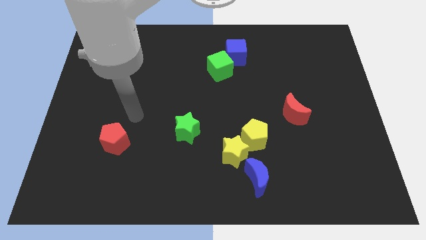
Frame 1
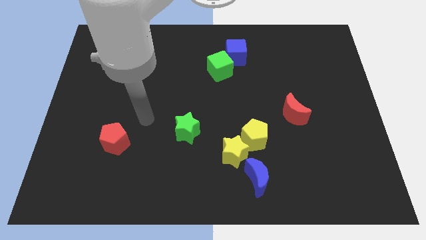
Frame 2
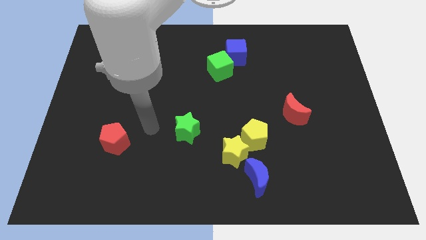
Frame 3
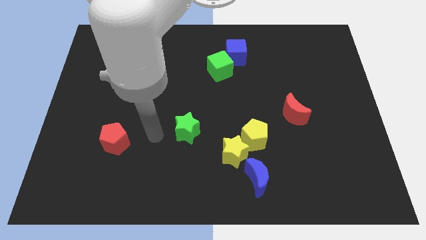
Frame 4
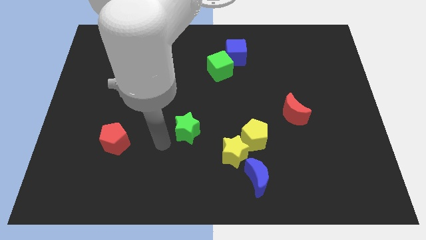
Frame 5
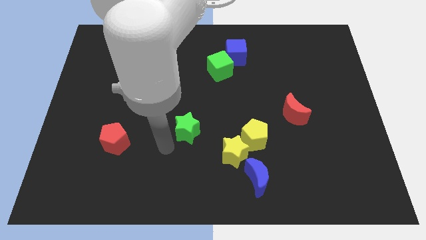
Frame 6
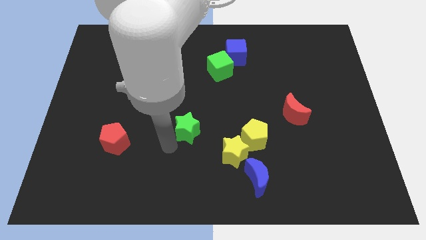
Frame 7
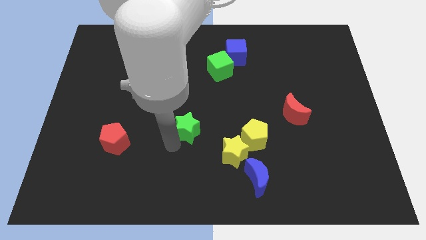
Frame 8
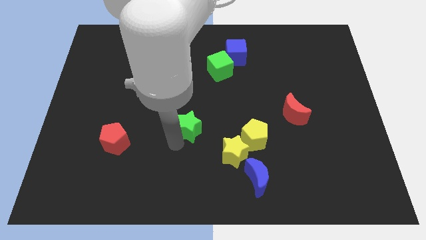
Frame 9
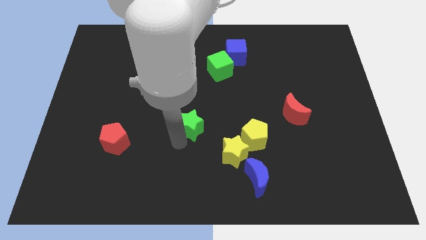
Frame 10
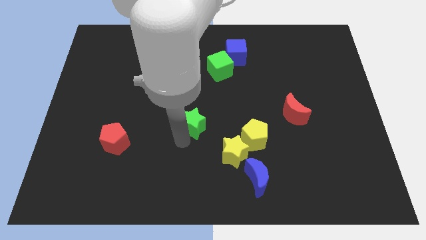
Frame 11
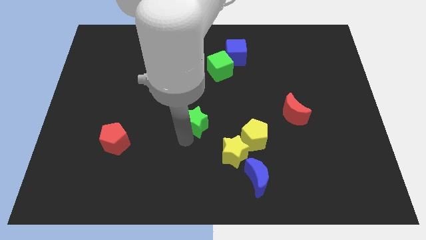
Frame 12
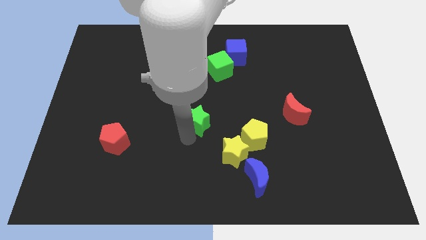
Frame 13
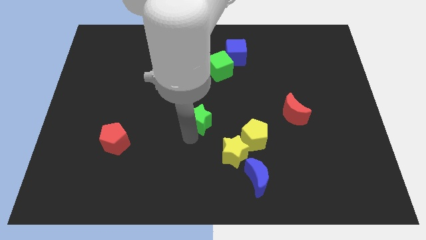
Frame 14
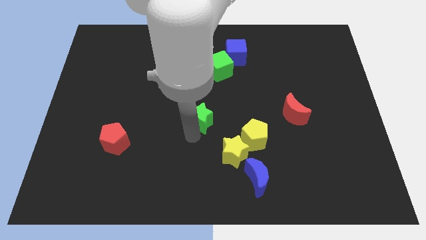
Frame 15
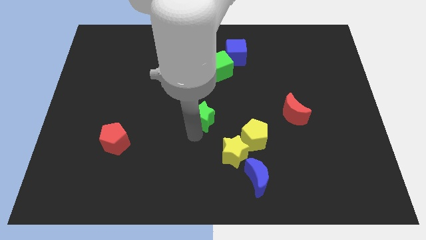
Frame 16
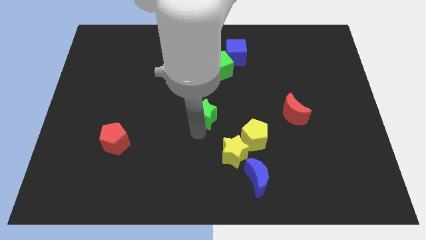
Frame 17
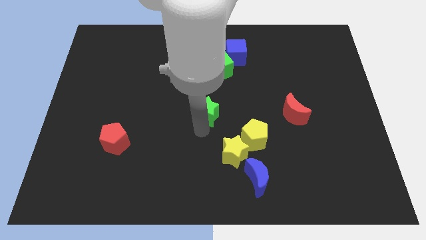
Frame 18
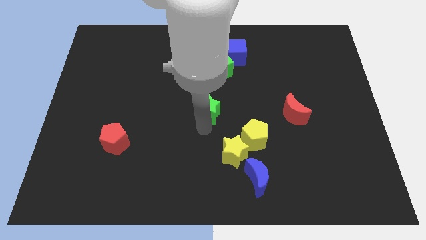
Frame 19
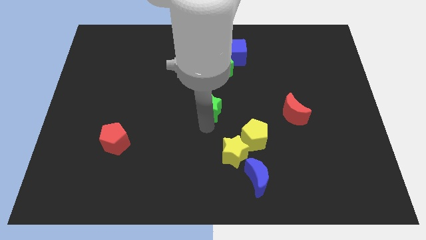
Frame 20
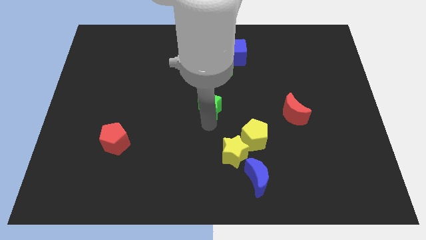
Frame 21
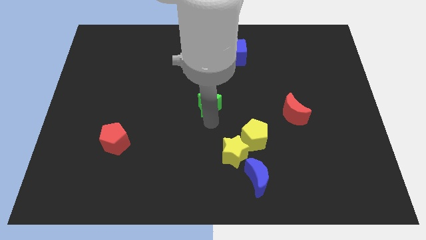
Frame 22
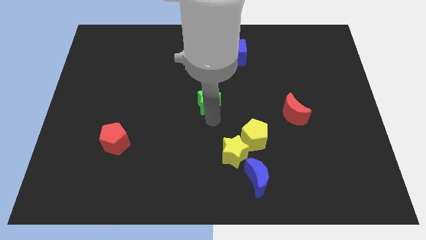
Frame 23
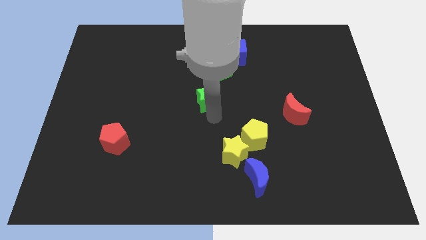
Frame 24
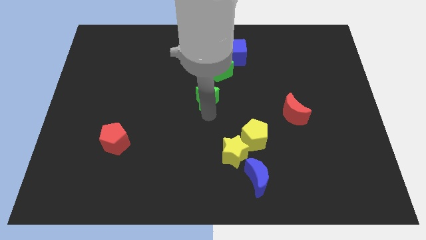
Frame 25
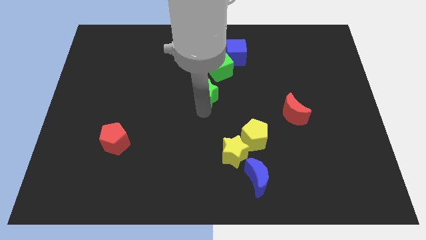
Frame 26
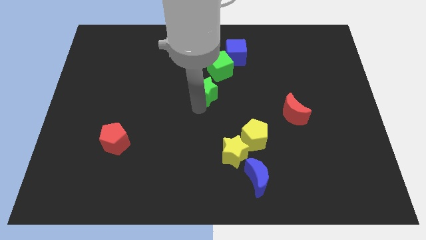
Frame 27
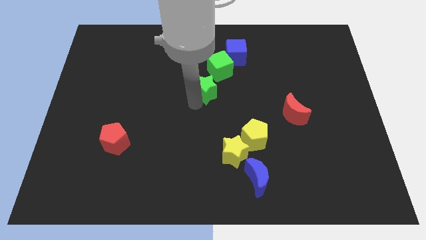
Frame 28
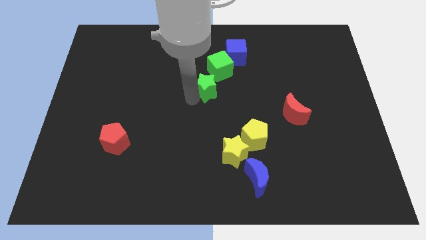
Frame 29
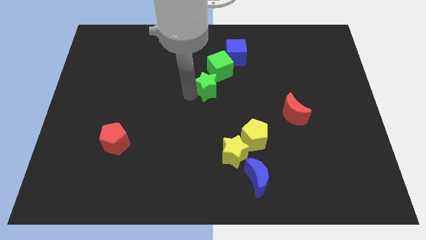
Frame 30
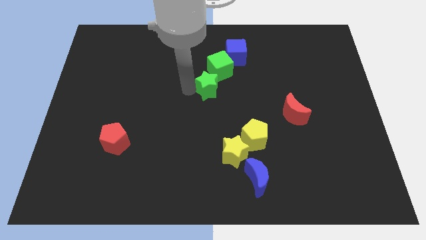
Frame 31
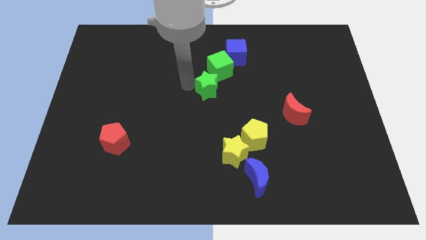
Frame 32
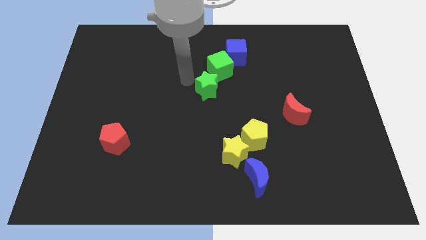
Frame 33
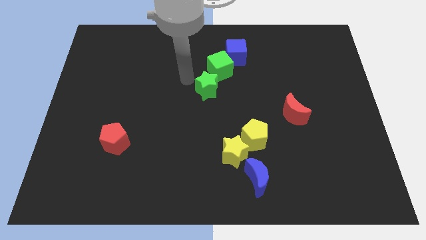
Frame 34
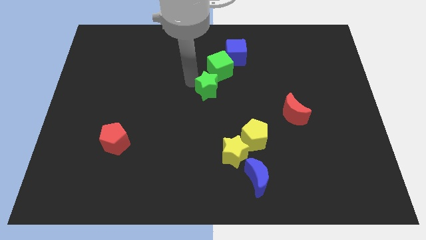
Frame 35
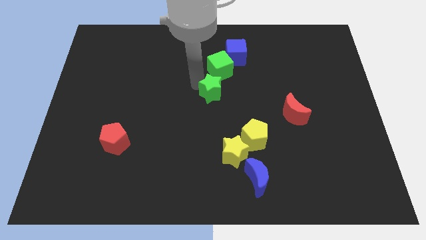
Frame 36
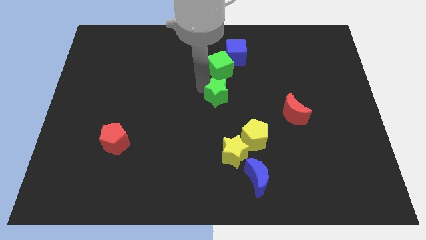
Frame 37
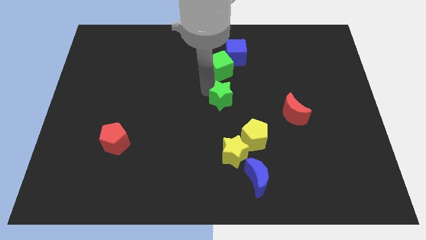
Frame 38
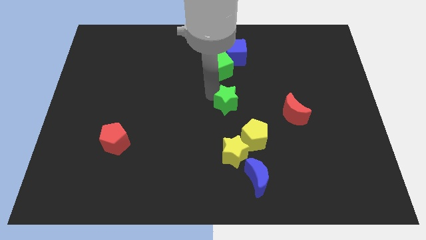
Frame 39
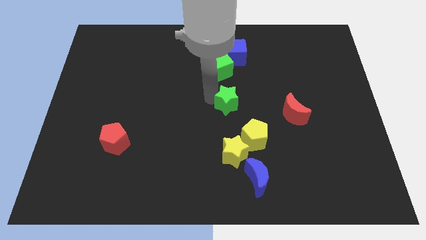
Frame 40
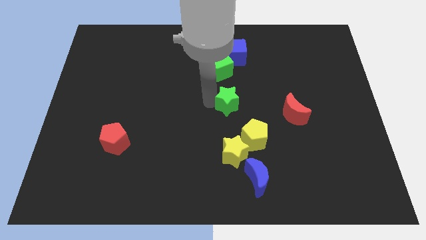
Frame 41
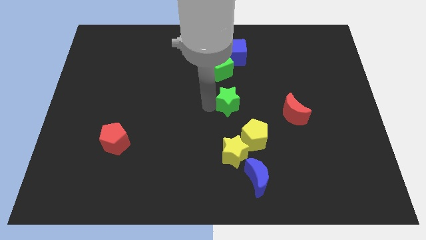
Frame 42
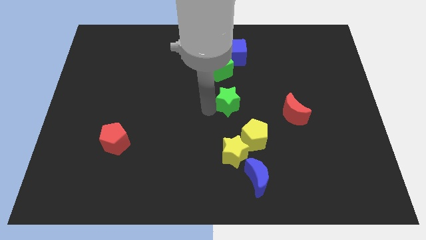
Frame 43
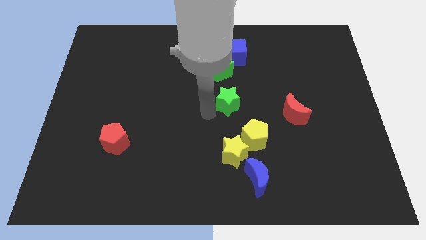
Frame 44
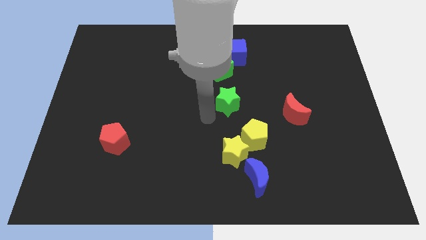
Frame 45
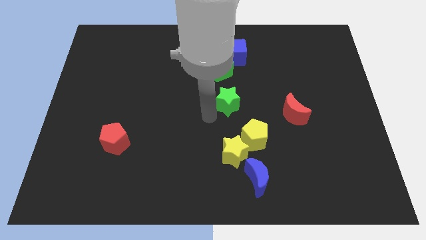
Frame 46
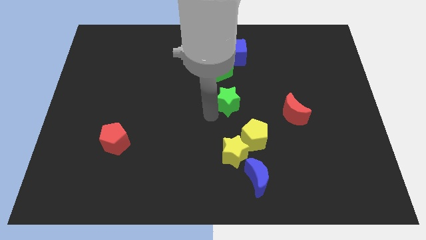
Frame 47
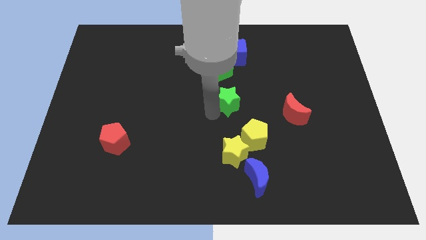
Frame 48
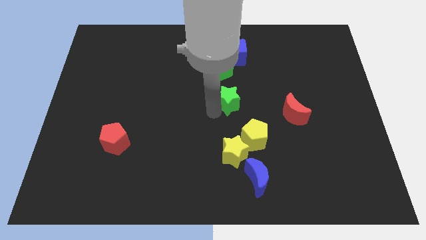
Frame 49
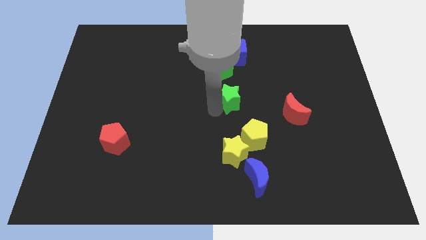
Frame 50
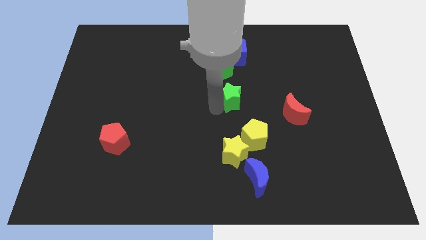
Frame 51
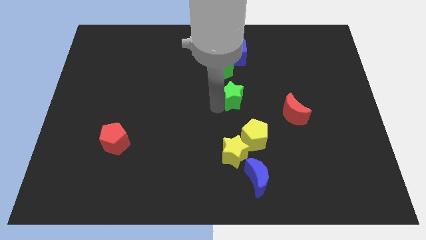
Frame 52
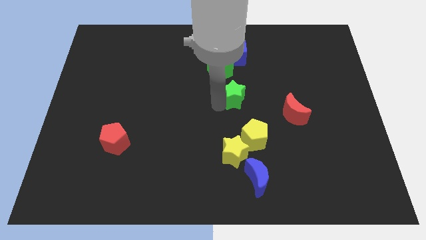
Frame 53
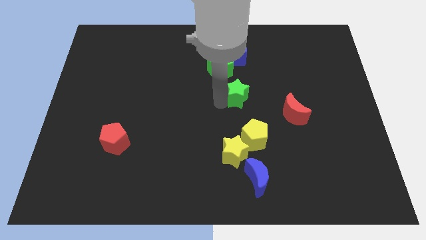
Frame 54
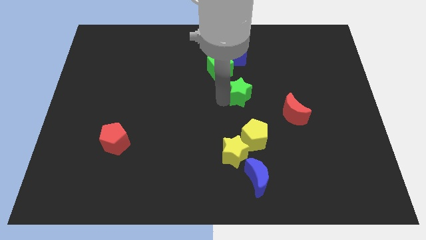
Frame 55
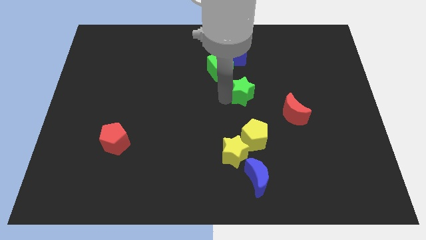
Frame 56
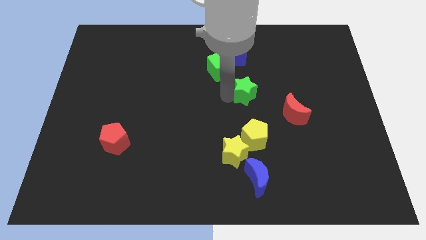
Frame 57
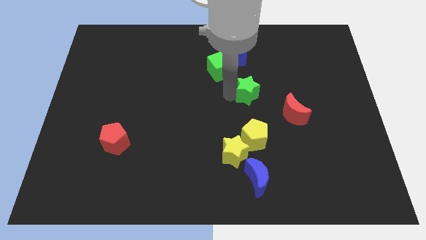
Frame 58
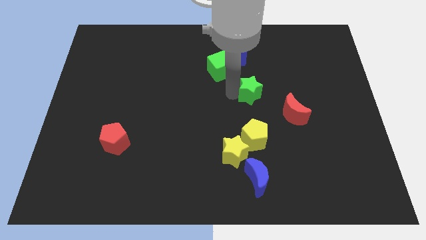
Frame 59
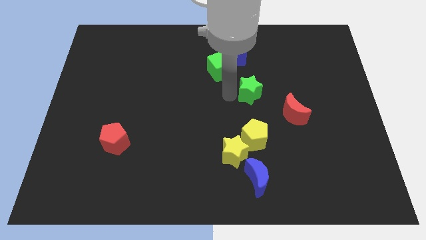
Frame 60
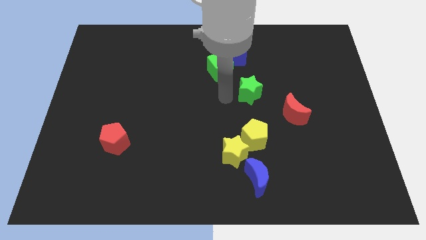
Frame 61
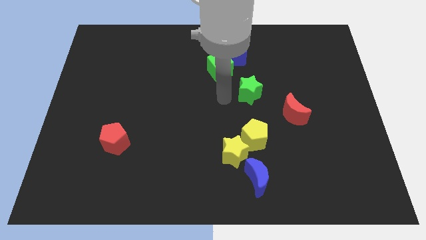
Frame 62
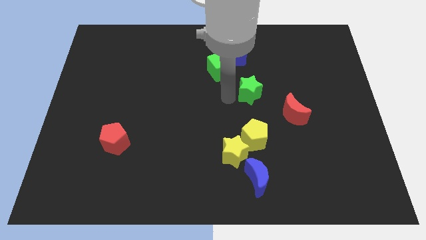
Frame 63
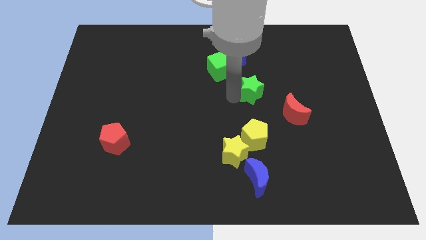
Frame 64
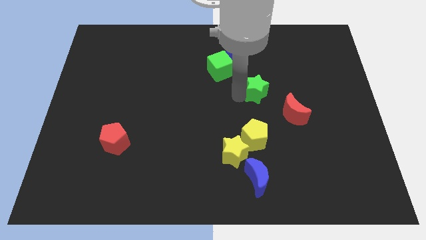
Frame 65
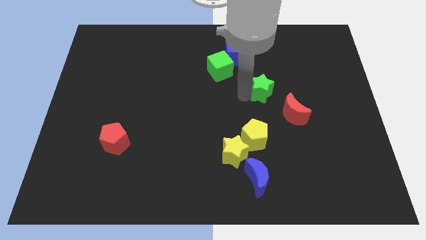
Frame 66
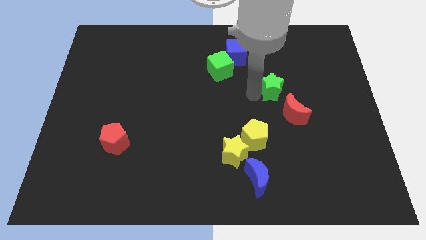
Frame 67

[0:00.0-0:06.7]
push the green star above the red moon

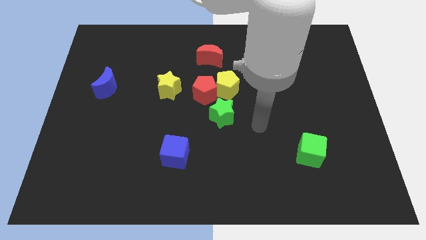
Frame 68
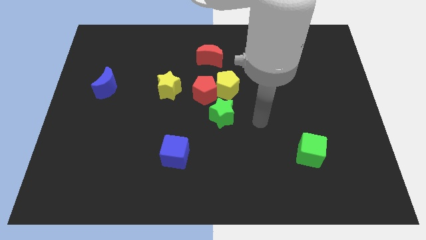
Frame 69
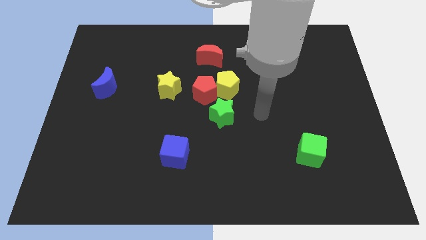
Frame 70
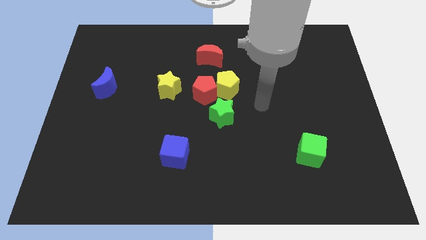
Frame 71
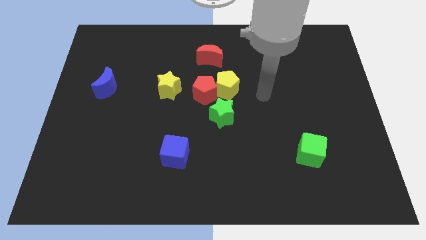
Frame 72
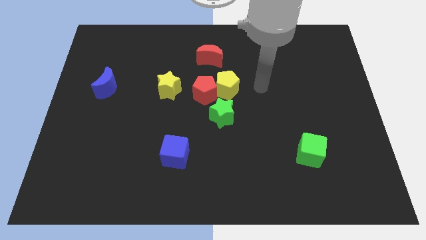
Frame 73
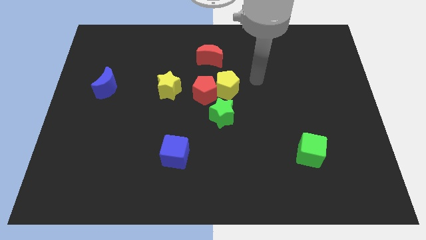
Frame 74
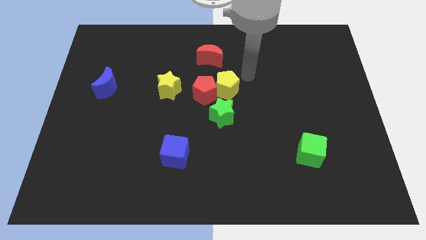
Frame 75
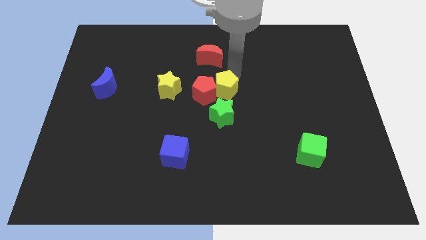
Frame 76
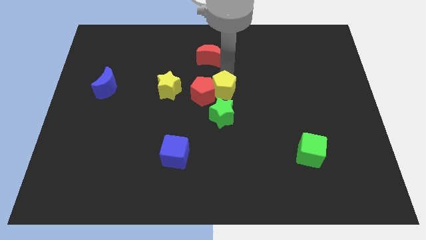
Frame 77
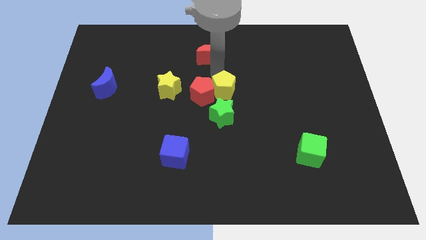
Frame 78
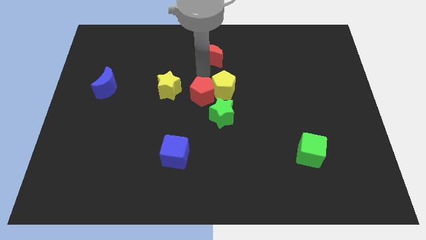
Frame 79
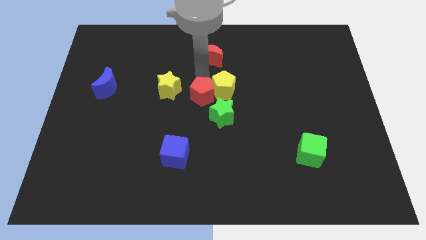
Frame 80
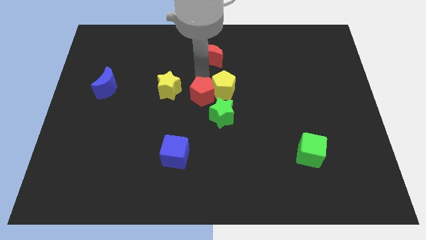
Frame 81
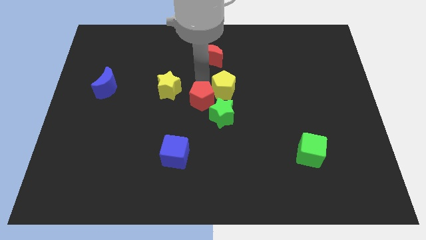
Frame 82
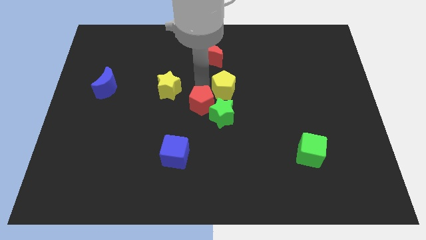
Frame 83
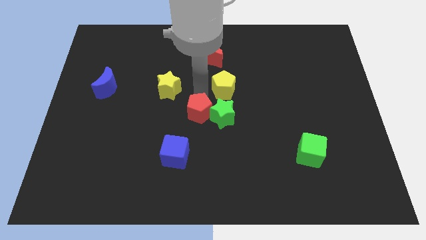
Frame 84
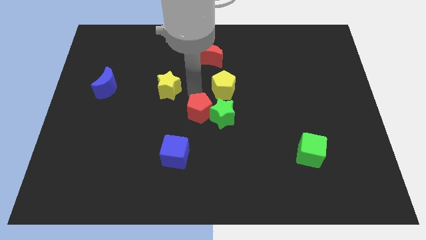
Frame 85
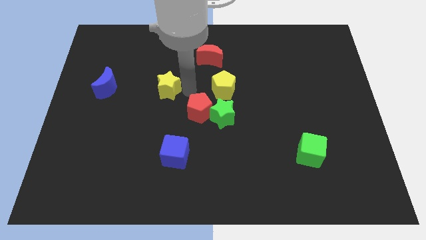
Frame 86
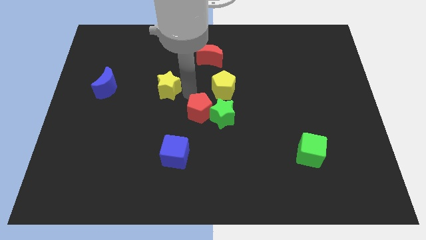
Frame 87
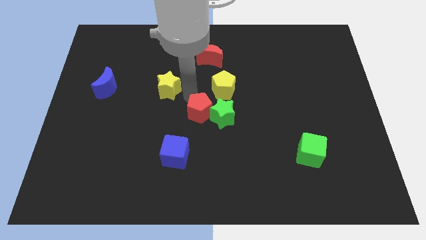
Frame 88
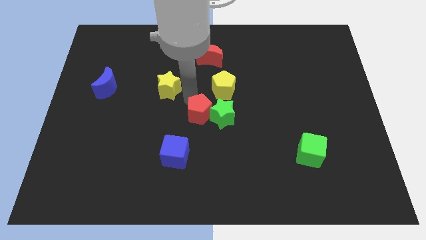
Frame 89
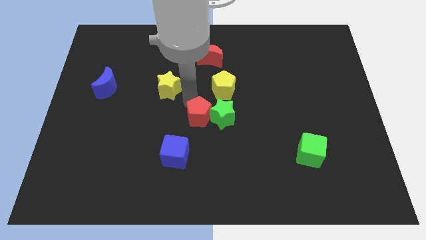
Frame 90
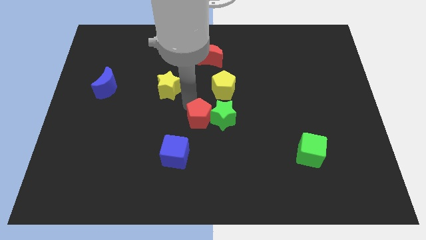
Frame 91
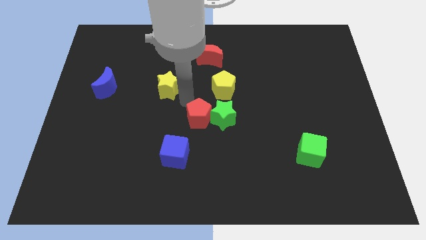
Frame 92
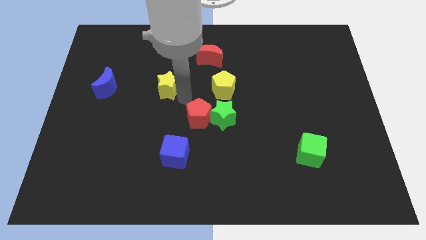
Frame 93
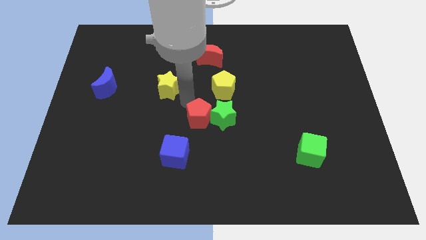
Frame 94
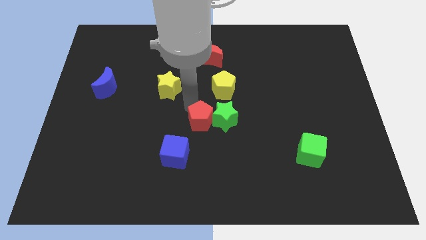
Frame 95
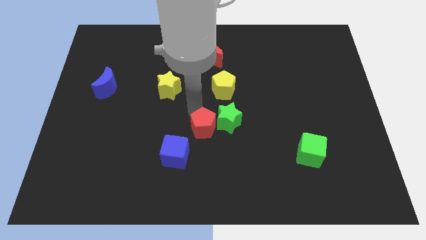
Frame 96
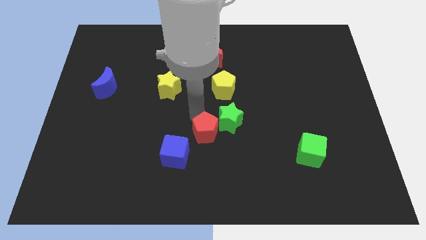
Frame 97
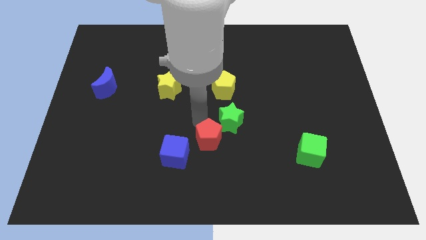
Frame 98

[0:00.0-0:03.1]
put the red pentagon to the right of the blue cube
